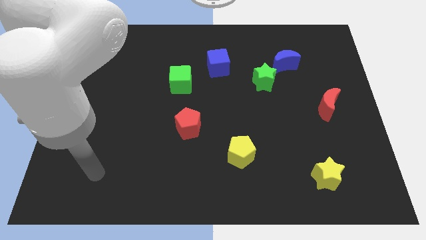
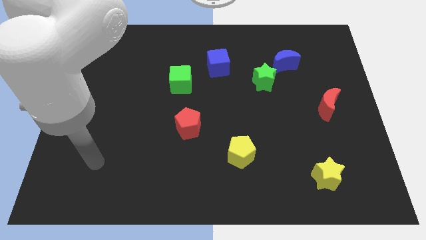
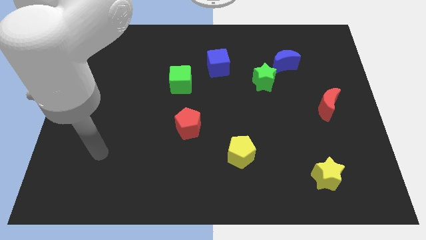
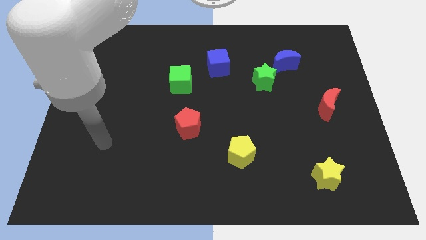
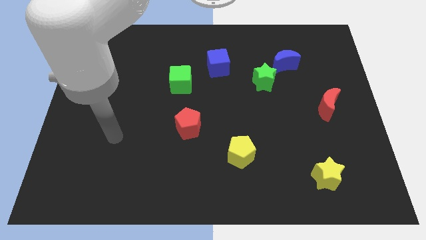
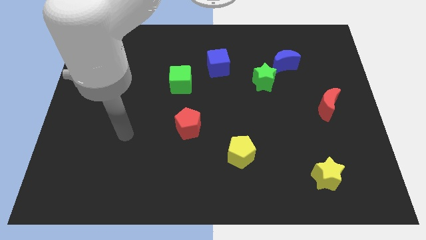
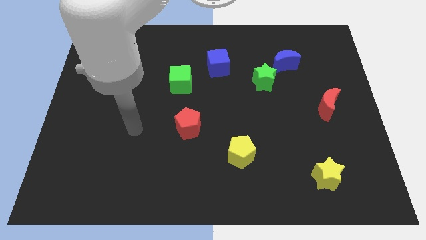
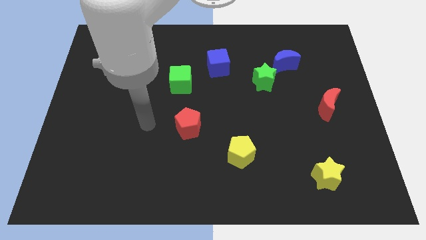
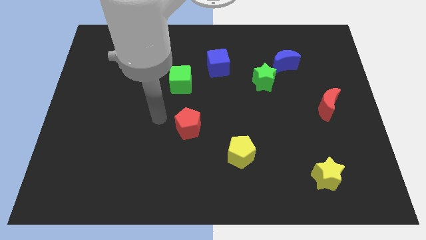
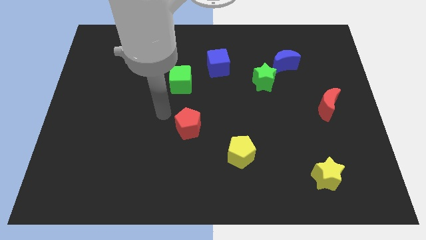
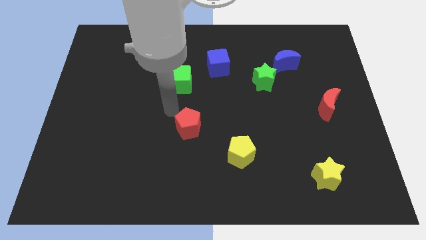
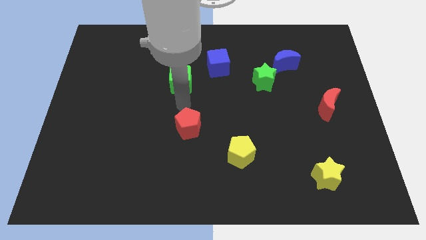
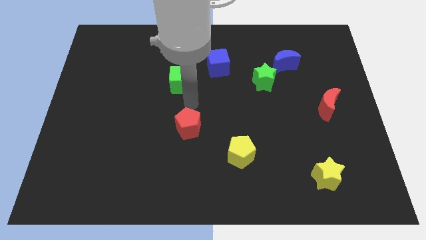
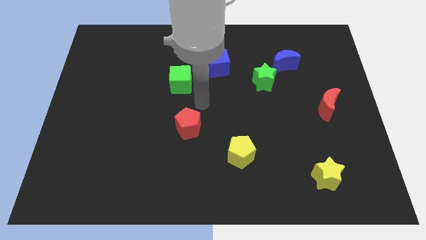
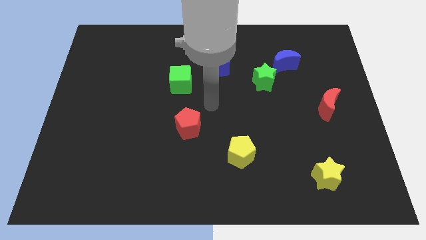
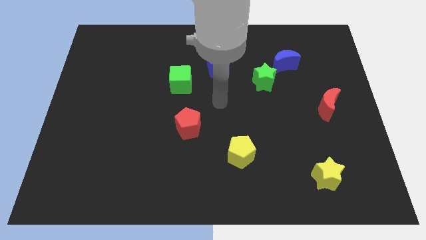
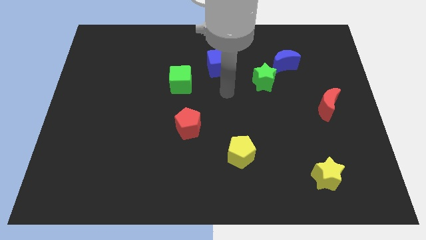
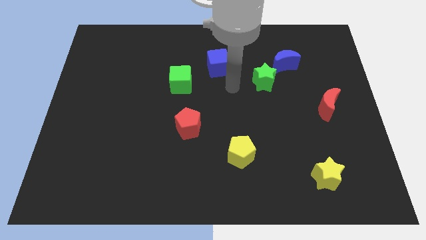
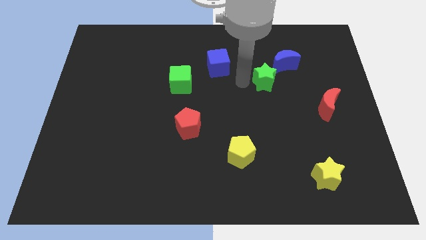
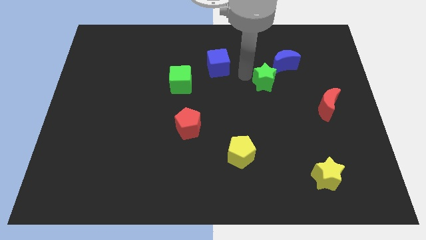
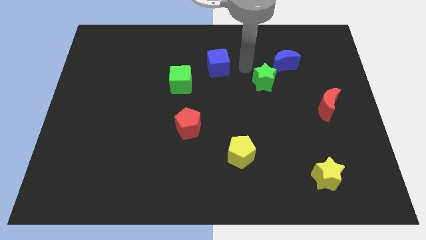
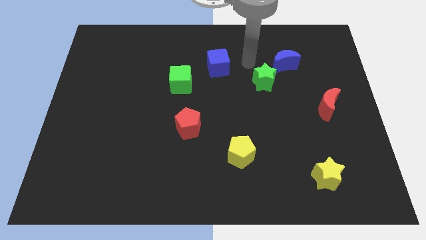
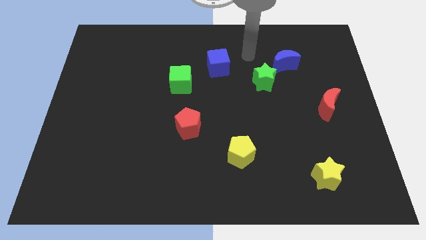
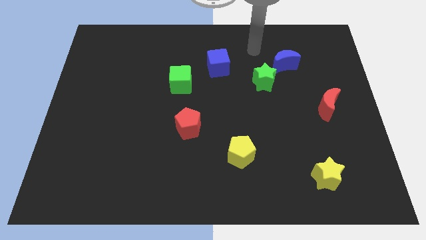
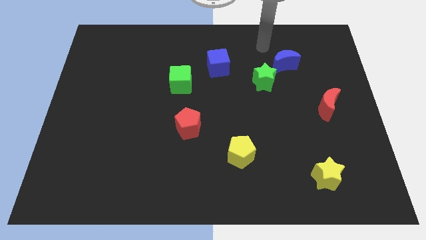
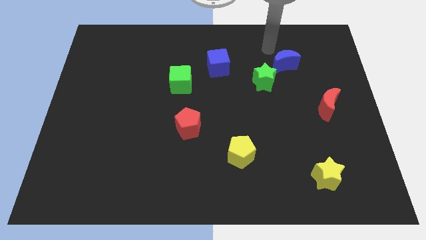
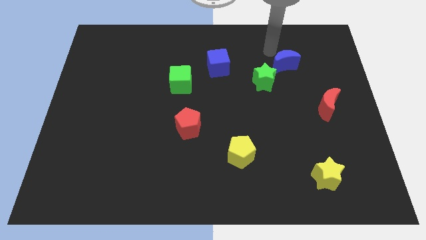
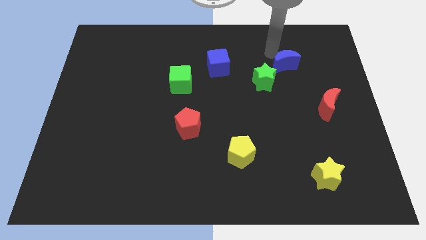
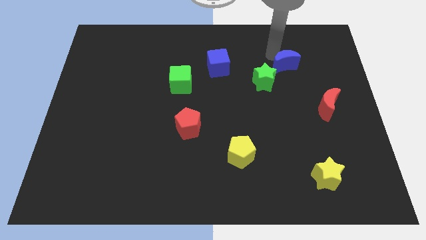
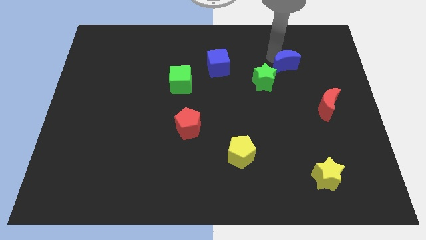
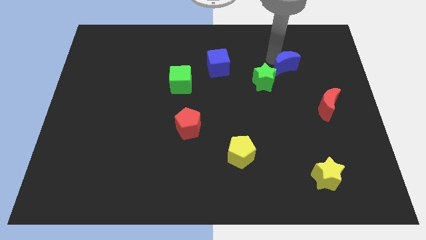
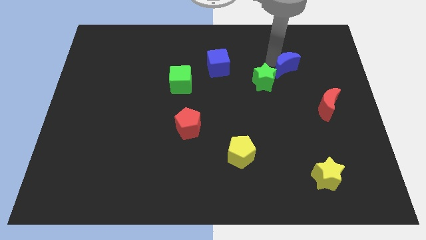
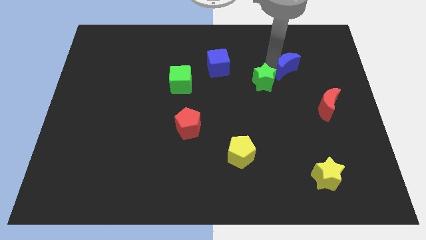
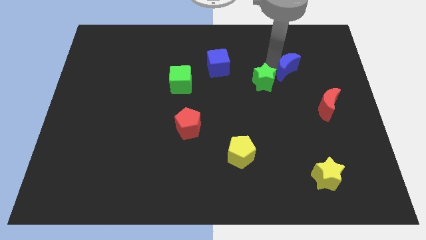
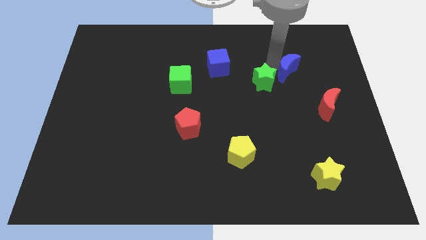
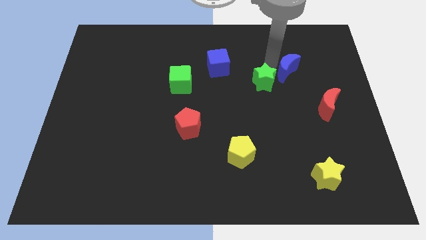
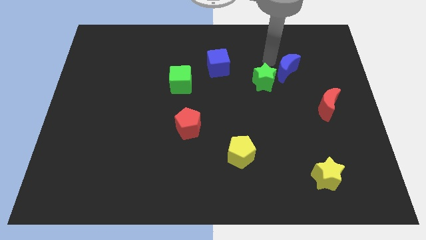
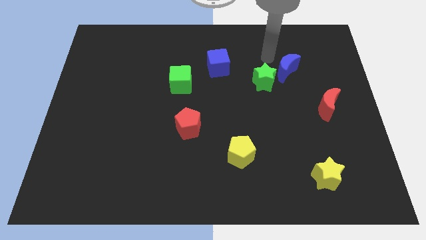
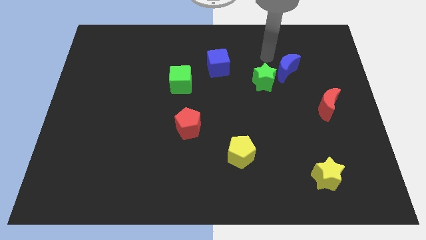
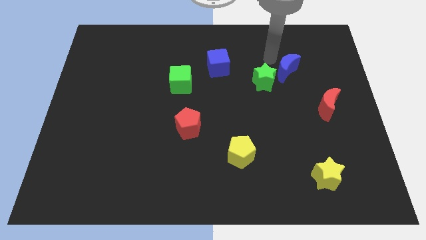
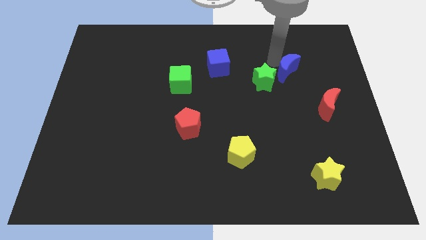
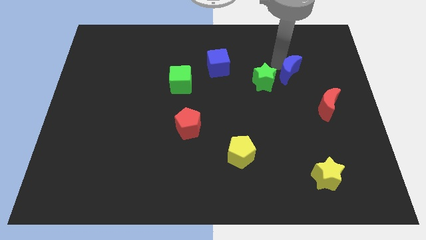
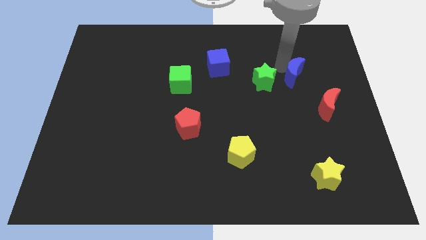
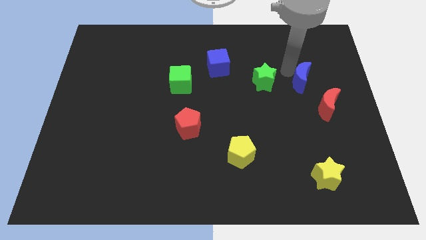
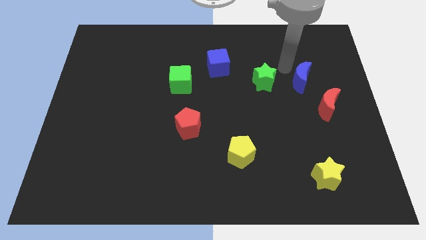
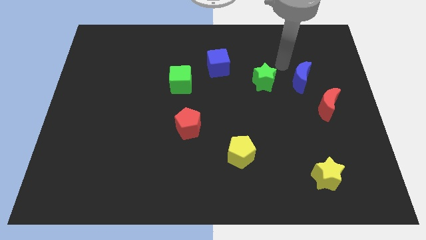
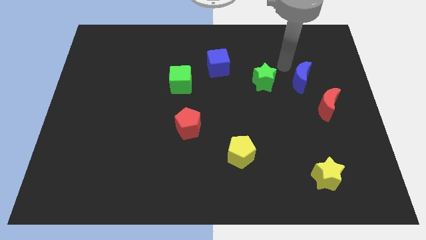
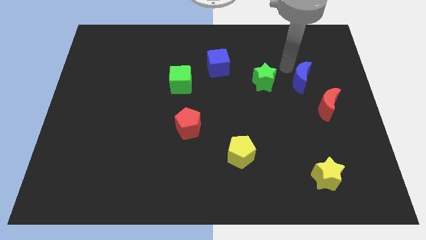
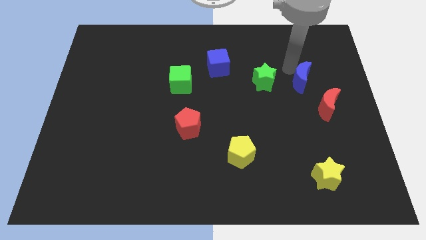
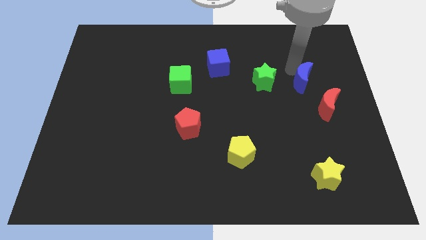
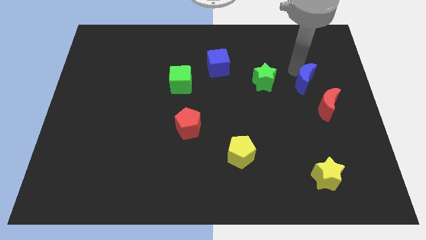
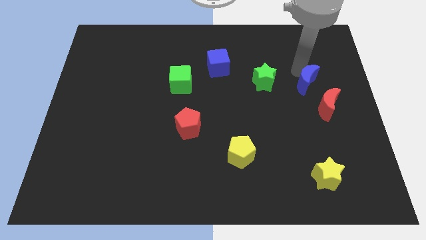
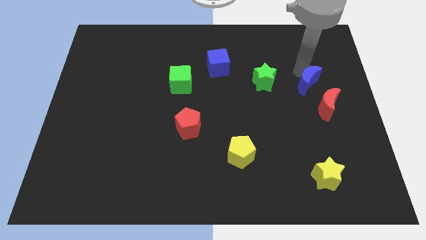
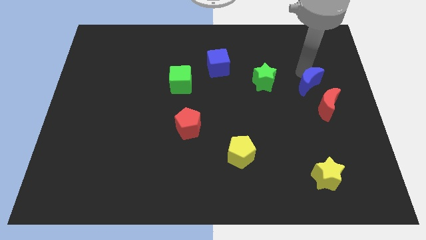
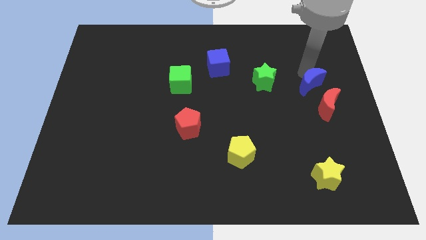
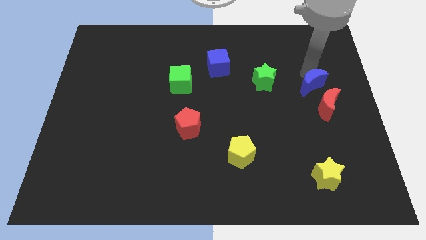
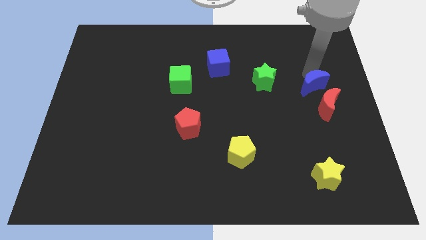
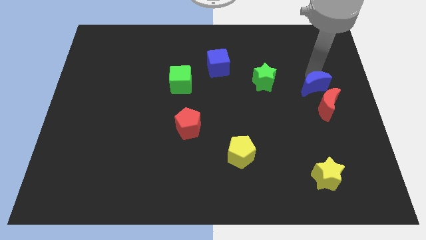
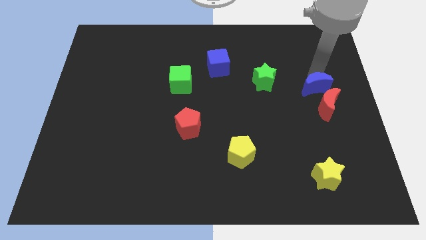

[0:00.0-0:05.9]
slide the blue moon towards the red moon

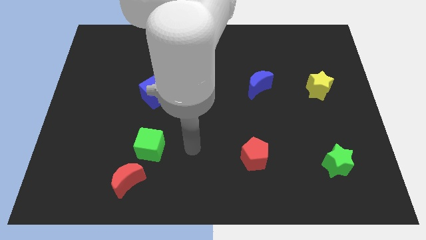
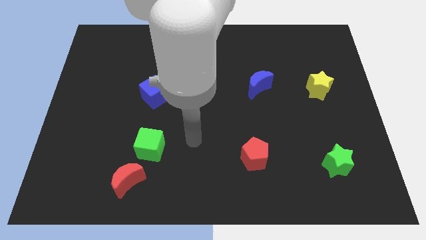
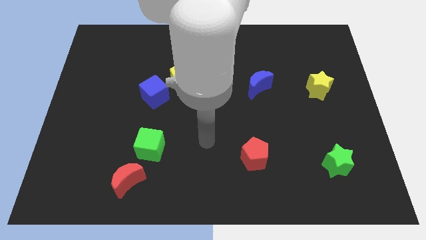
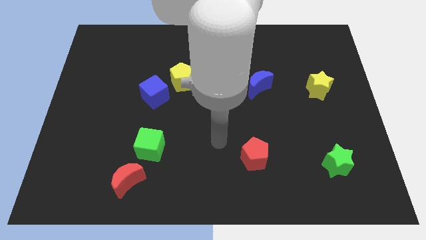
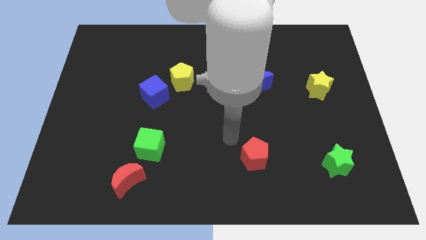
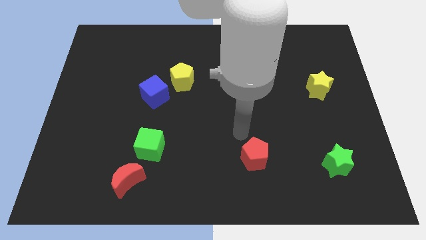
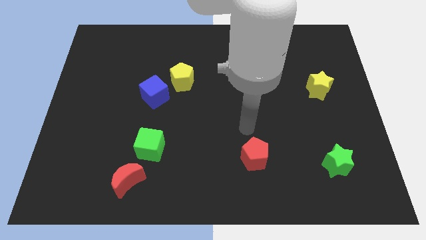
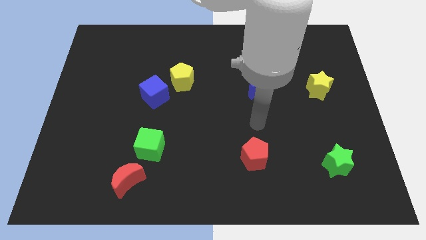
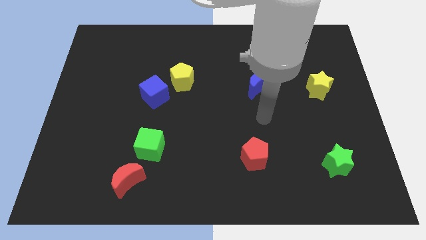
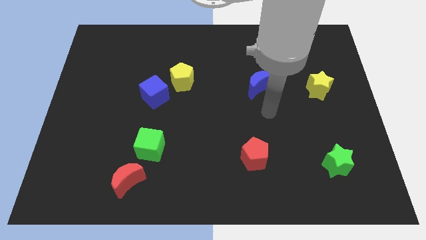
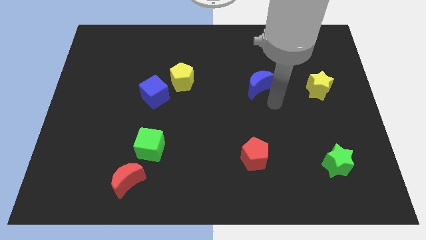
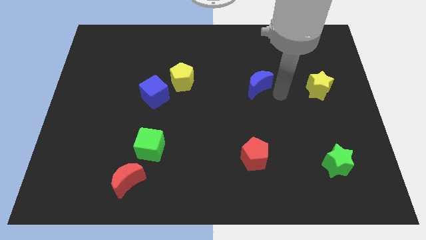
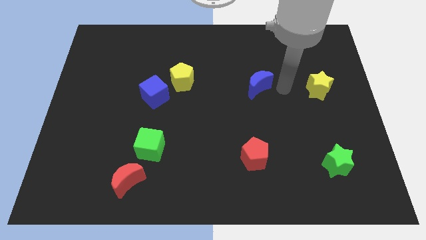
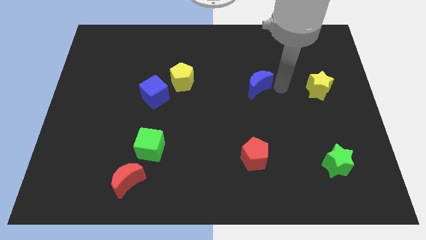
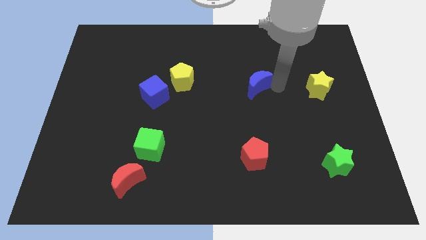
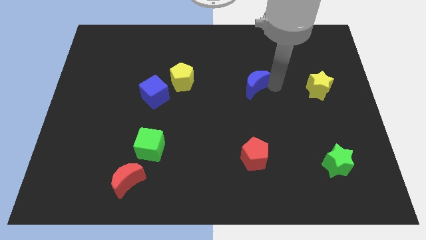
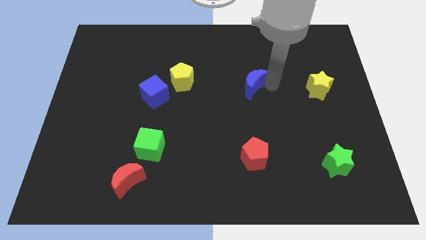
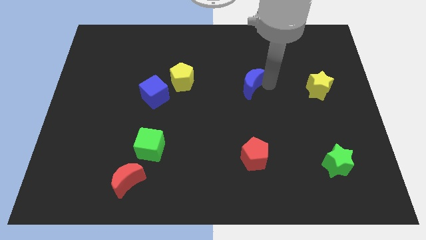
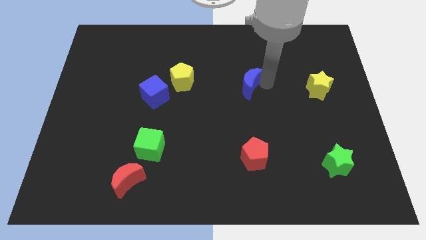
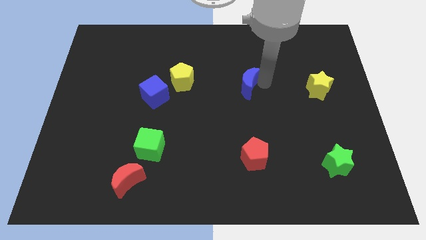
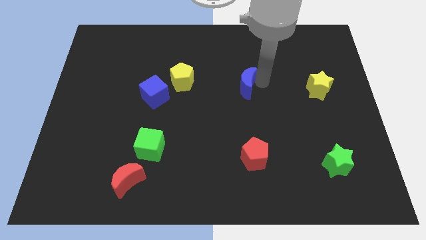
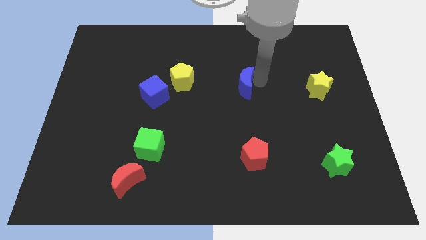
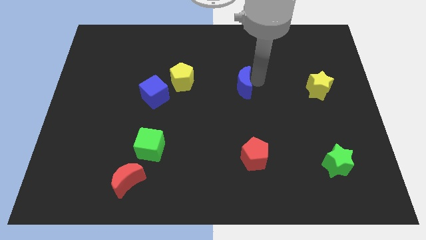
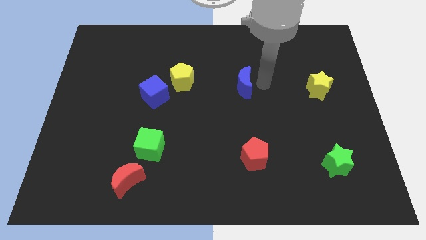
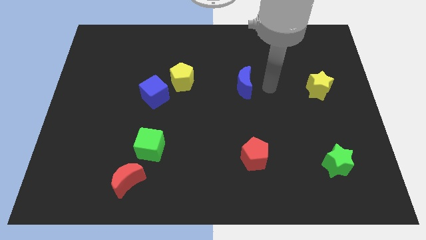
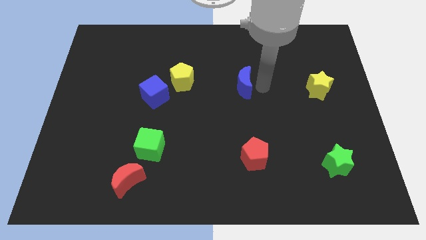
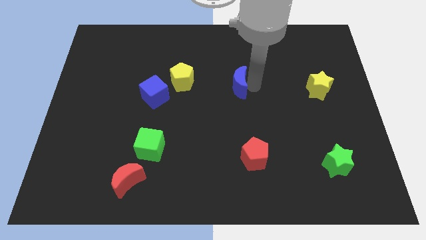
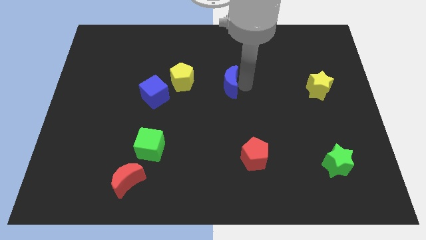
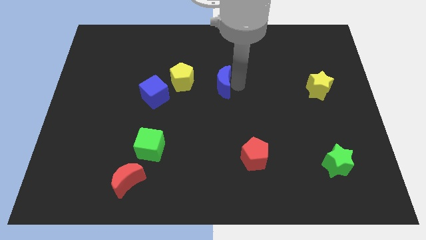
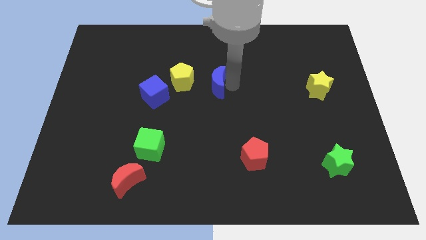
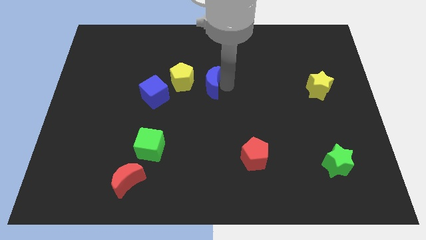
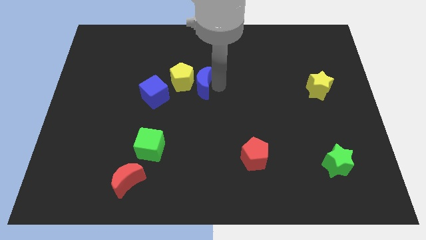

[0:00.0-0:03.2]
slide the blue moon next to the yellow pentagon
